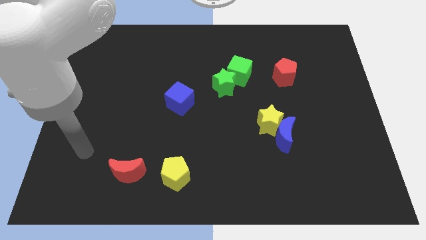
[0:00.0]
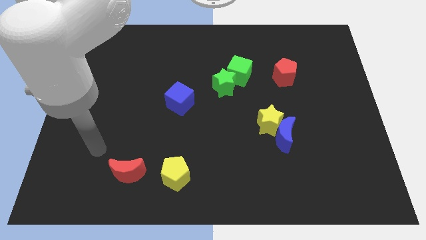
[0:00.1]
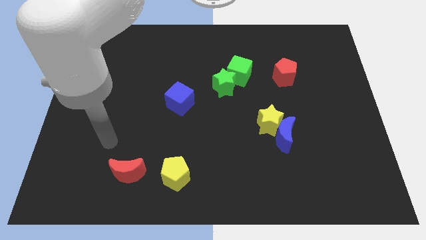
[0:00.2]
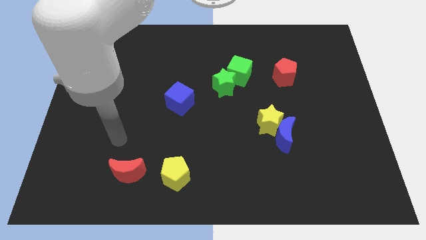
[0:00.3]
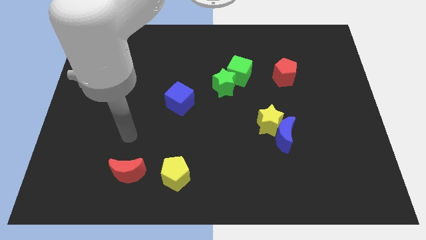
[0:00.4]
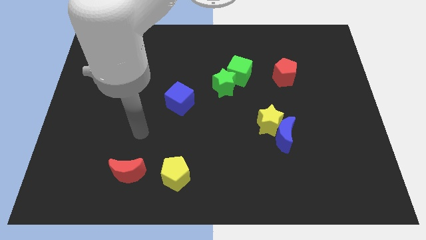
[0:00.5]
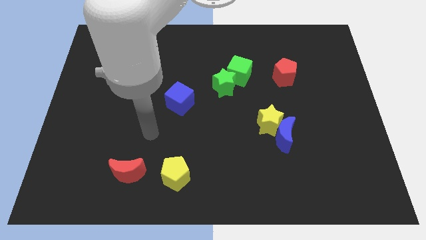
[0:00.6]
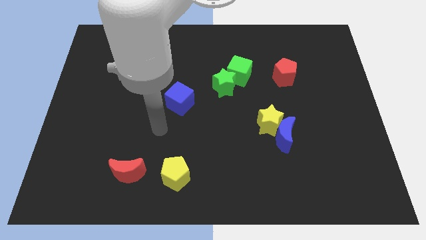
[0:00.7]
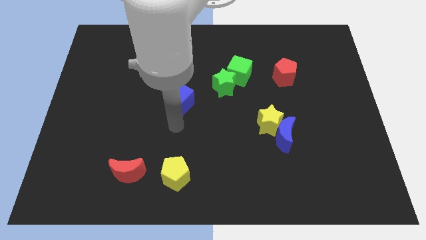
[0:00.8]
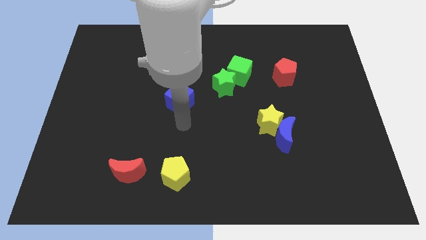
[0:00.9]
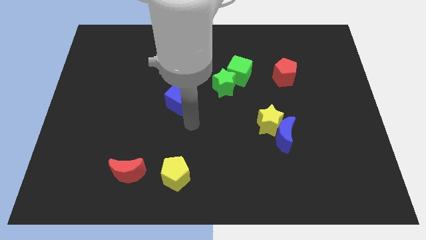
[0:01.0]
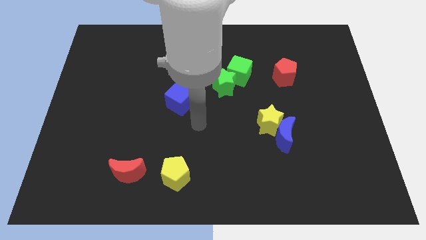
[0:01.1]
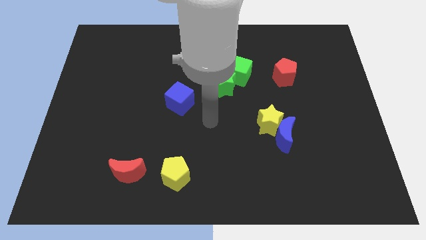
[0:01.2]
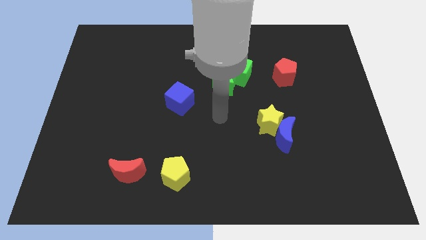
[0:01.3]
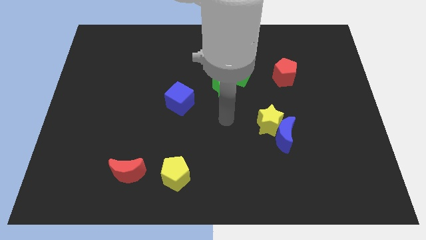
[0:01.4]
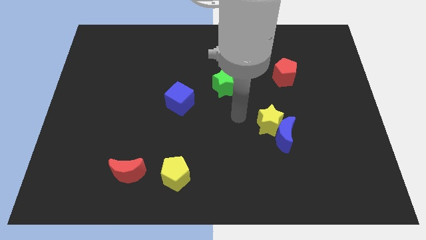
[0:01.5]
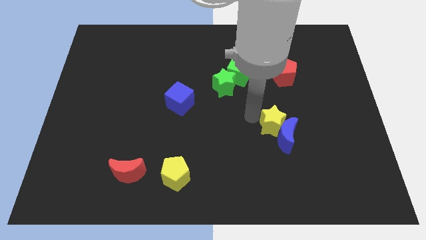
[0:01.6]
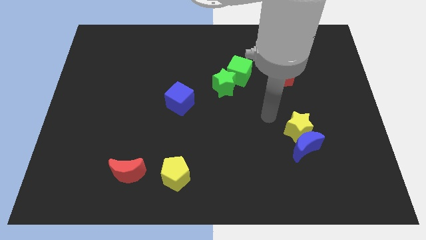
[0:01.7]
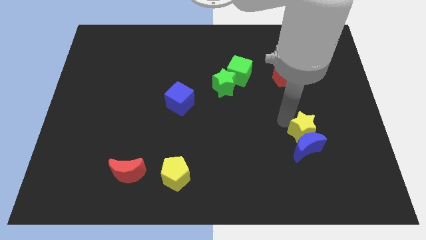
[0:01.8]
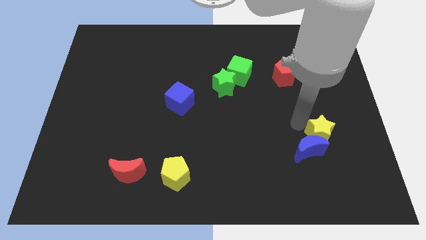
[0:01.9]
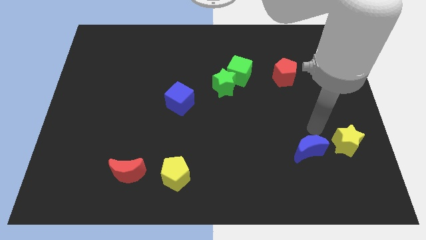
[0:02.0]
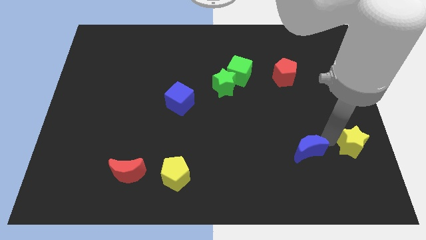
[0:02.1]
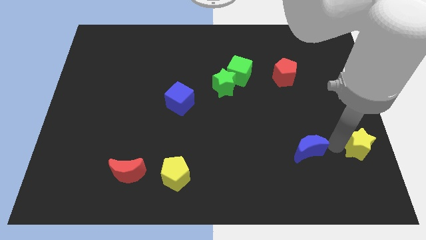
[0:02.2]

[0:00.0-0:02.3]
move the blue moon away from the yellow star

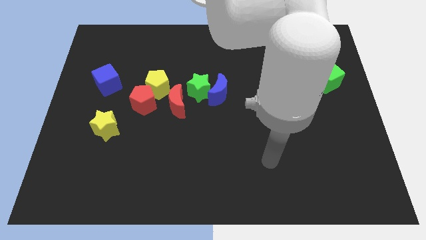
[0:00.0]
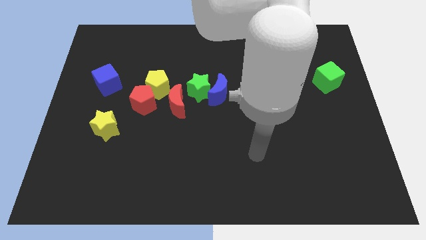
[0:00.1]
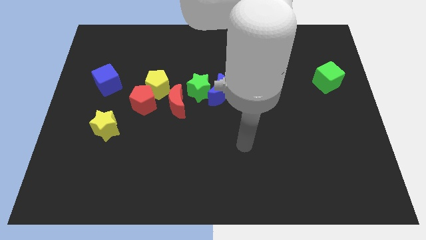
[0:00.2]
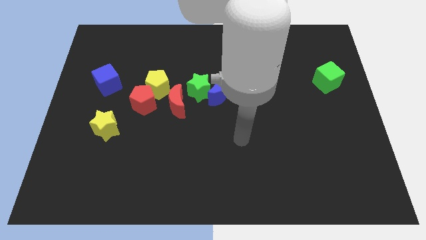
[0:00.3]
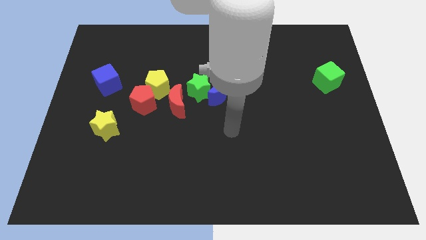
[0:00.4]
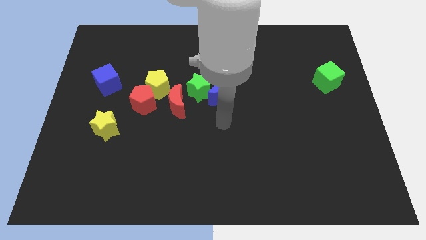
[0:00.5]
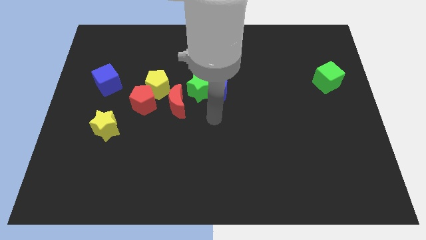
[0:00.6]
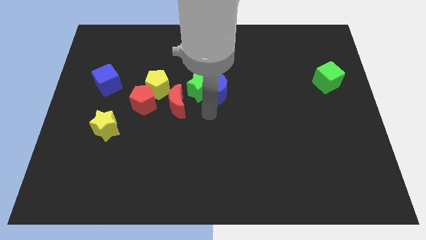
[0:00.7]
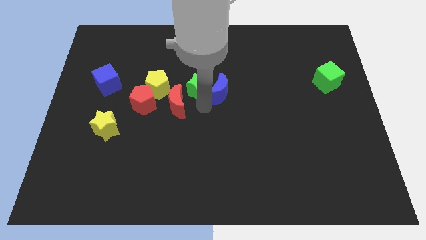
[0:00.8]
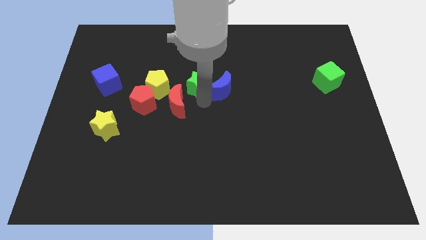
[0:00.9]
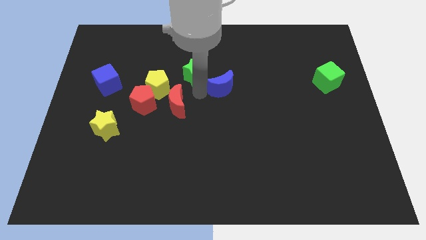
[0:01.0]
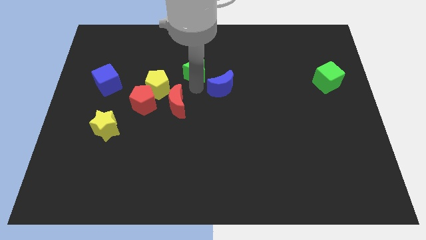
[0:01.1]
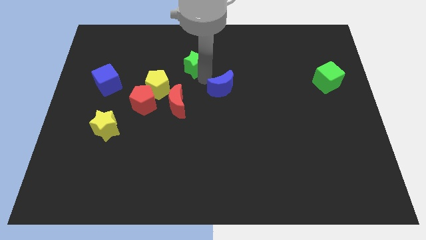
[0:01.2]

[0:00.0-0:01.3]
move the blue moon away from the green star

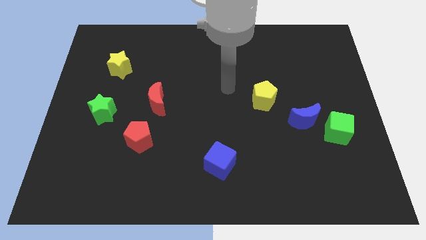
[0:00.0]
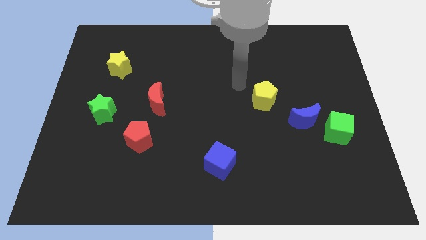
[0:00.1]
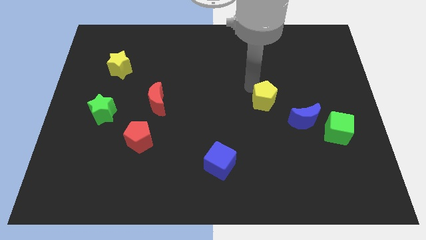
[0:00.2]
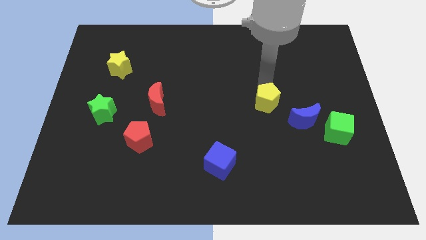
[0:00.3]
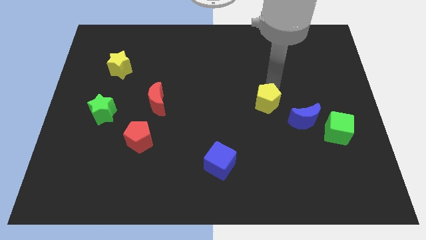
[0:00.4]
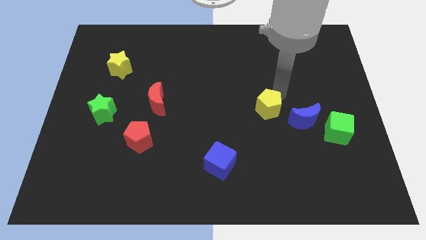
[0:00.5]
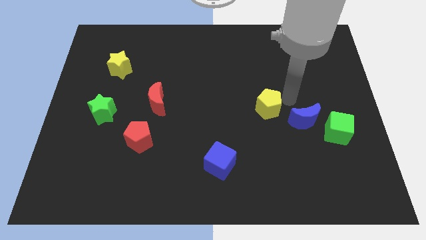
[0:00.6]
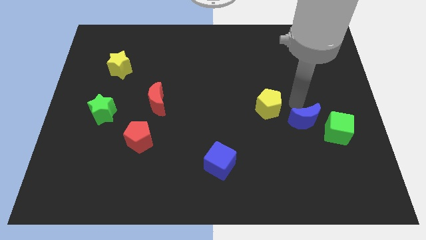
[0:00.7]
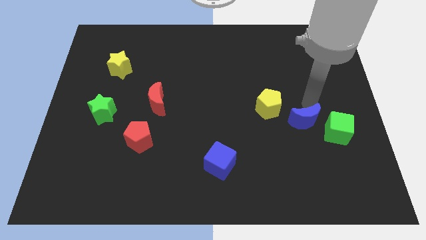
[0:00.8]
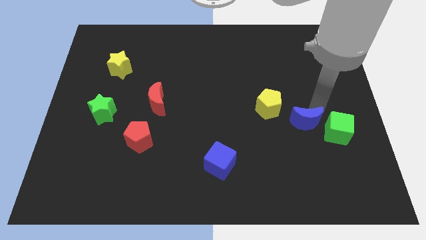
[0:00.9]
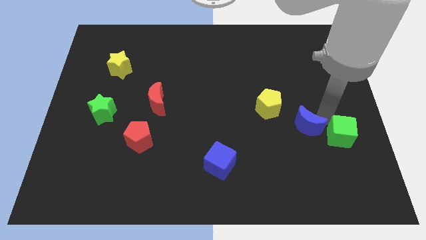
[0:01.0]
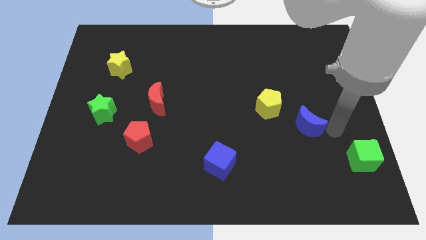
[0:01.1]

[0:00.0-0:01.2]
pull the blue moon apart from the green cube

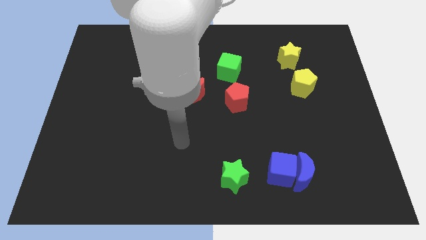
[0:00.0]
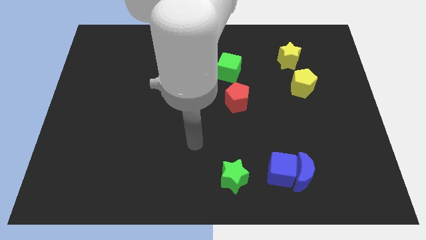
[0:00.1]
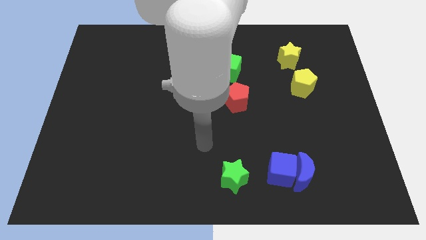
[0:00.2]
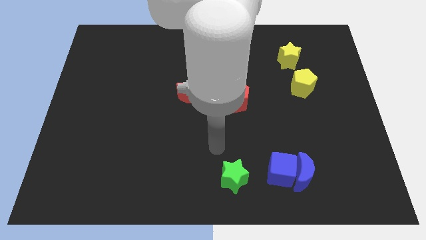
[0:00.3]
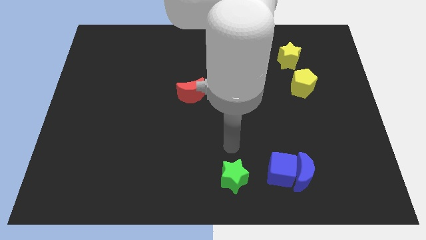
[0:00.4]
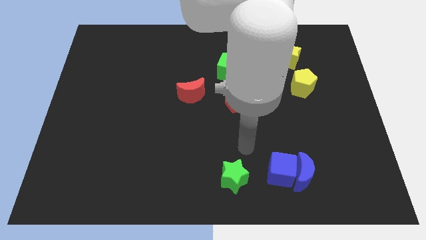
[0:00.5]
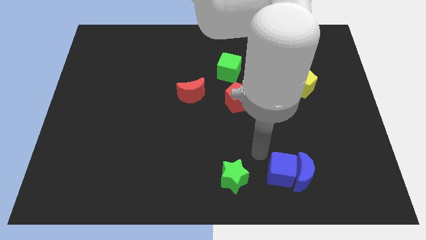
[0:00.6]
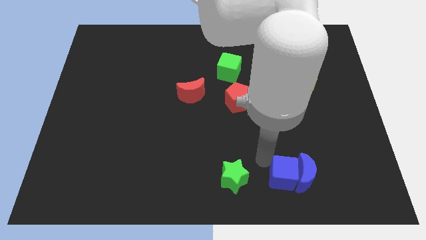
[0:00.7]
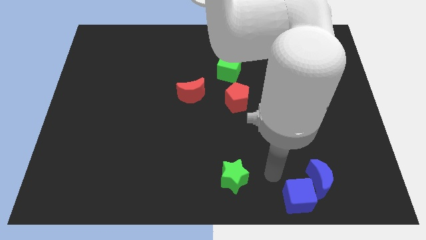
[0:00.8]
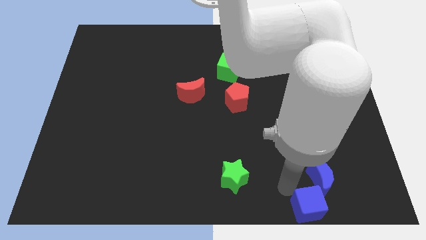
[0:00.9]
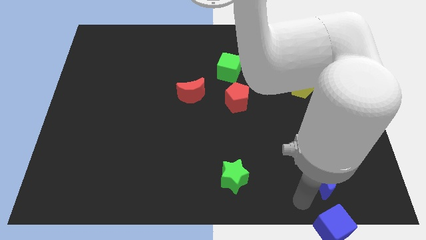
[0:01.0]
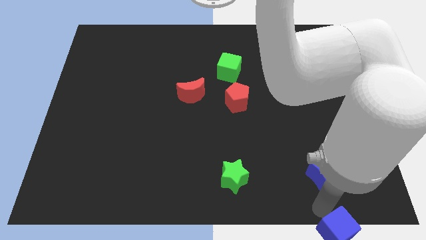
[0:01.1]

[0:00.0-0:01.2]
pull the blue moon apart from the blue cube

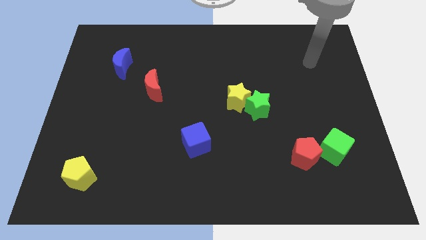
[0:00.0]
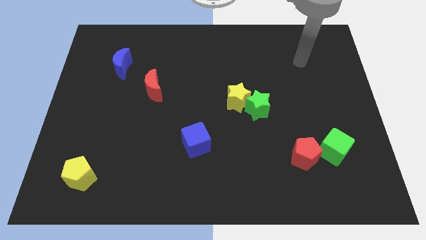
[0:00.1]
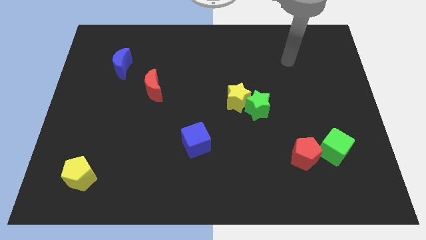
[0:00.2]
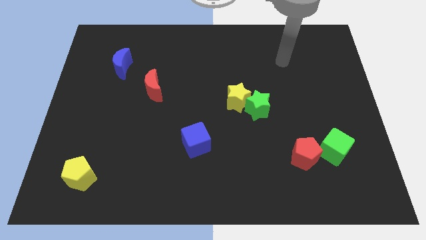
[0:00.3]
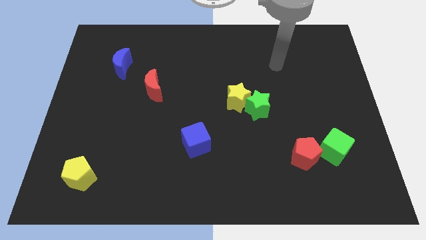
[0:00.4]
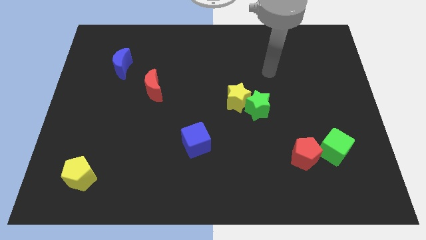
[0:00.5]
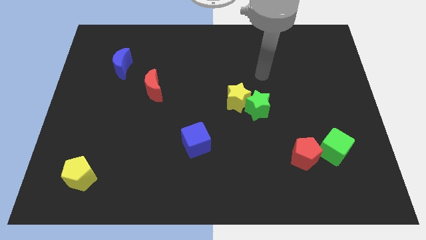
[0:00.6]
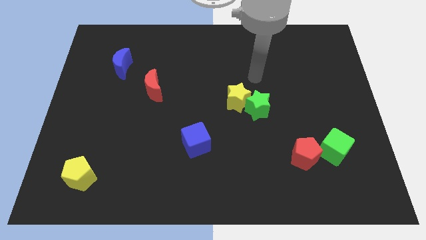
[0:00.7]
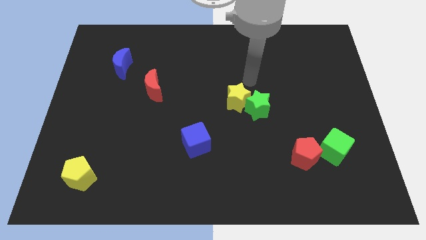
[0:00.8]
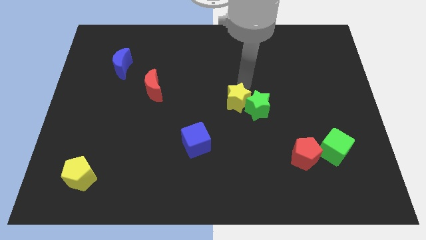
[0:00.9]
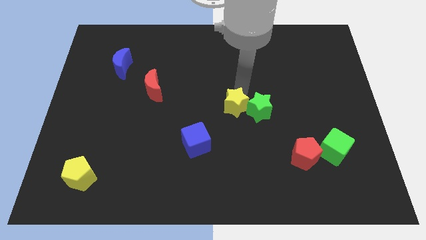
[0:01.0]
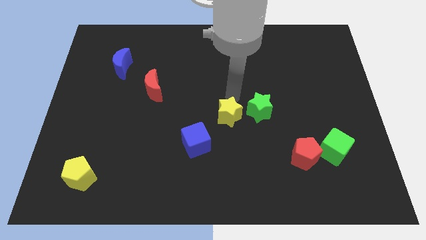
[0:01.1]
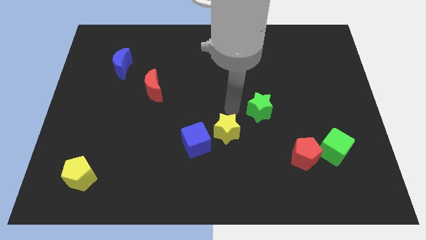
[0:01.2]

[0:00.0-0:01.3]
pull the green star apart from the yellow star

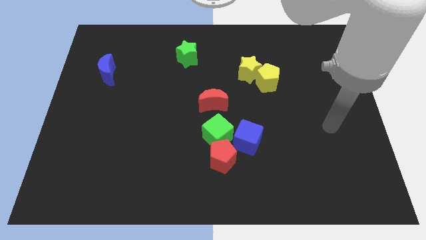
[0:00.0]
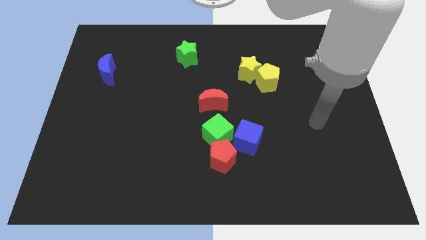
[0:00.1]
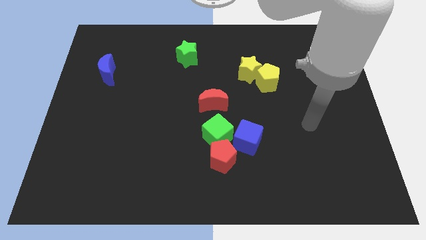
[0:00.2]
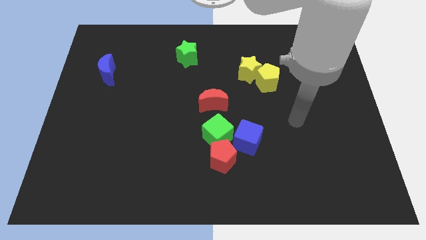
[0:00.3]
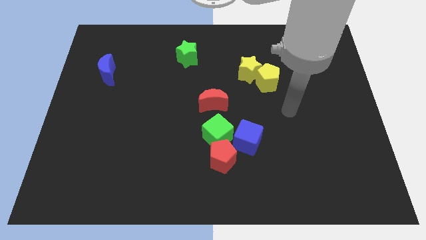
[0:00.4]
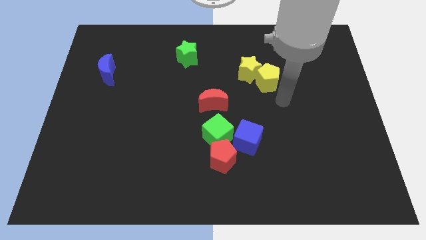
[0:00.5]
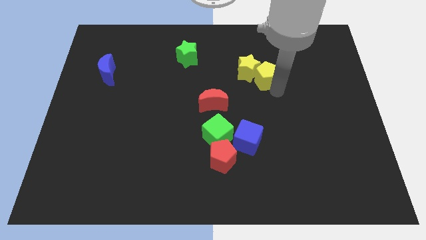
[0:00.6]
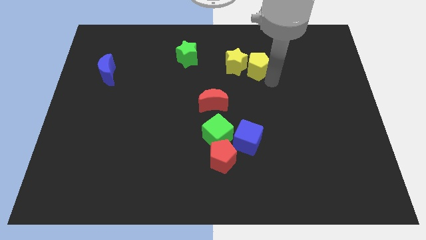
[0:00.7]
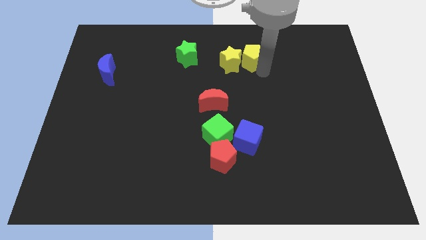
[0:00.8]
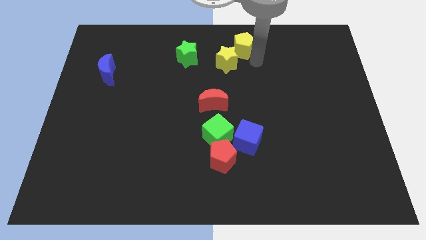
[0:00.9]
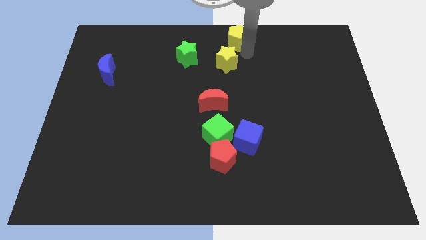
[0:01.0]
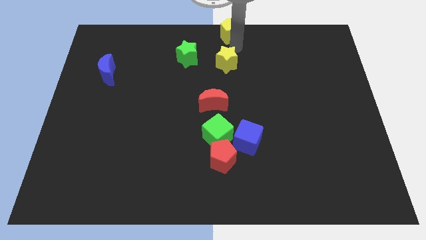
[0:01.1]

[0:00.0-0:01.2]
pull the yellow star apart from the yellow pentagon

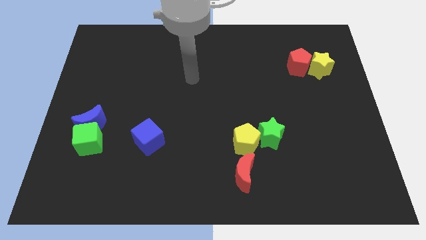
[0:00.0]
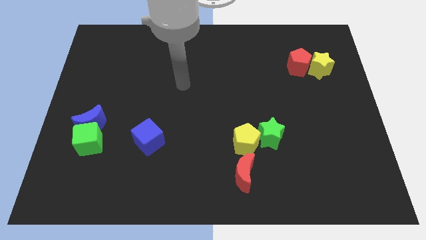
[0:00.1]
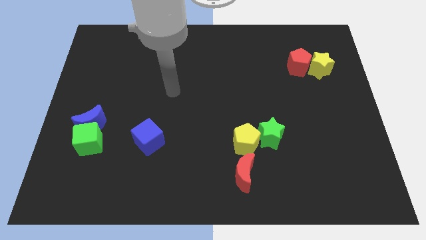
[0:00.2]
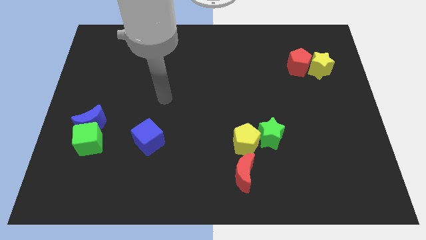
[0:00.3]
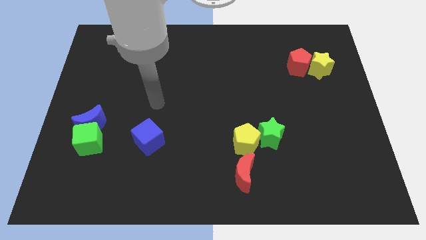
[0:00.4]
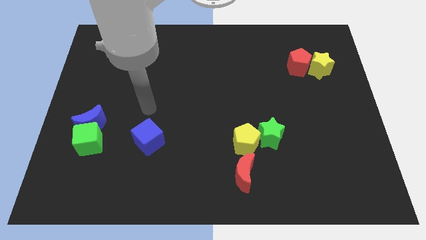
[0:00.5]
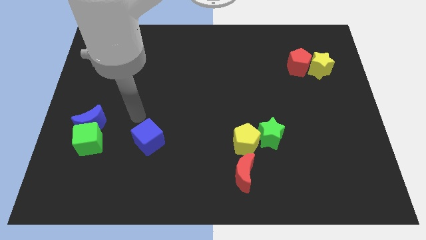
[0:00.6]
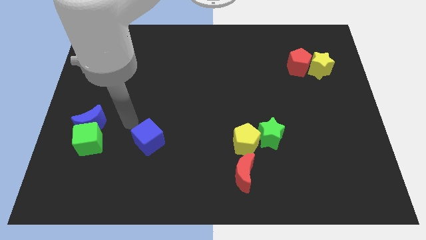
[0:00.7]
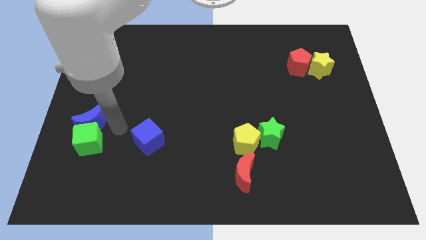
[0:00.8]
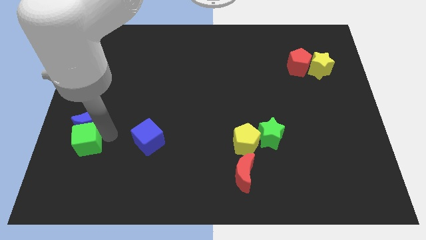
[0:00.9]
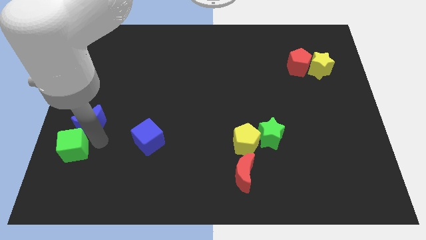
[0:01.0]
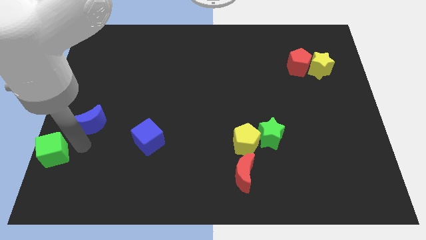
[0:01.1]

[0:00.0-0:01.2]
separate the blue moon from the green cube
